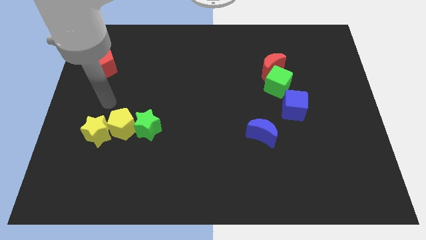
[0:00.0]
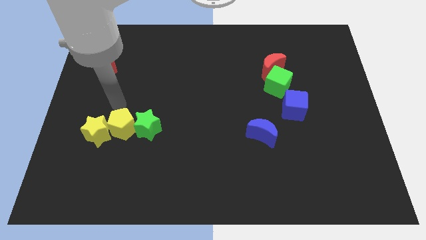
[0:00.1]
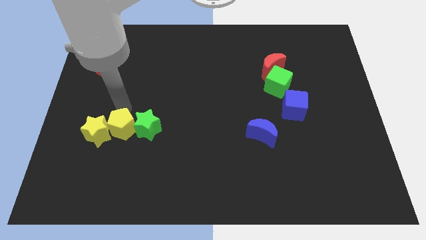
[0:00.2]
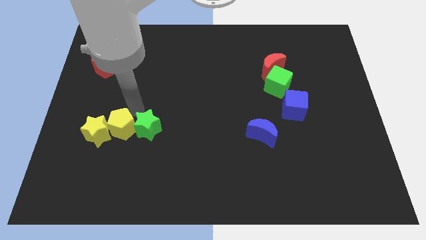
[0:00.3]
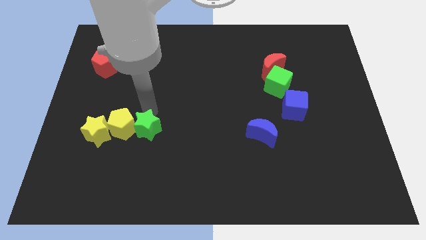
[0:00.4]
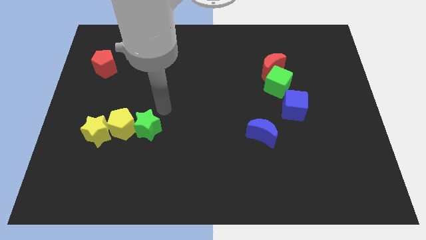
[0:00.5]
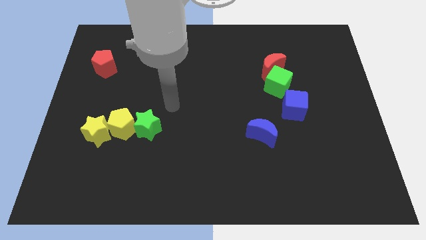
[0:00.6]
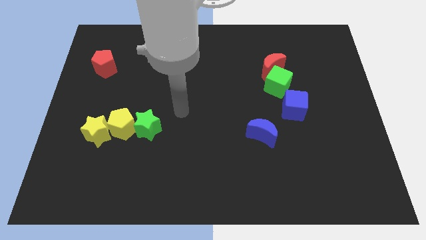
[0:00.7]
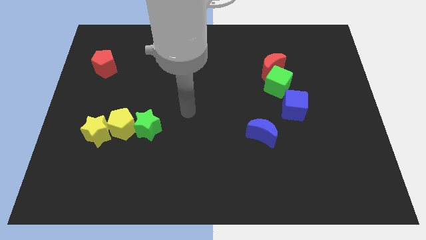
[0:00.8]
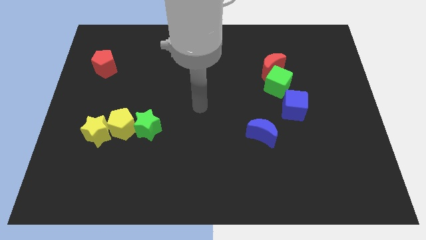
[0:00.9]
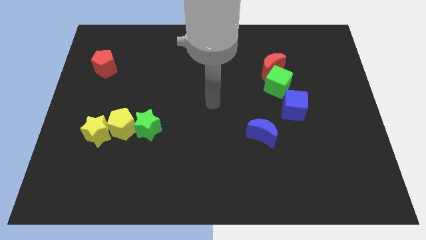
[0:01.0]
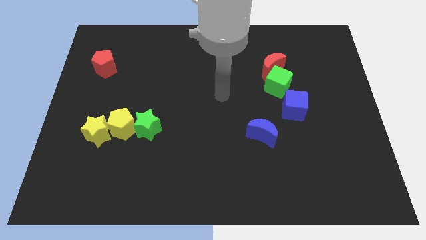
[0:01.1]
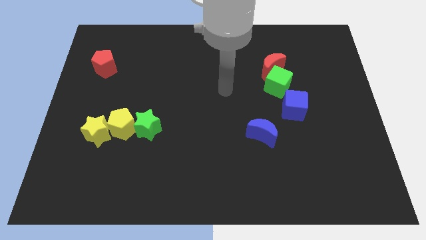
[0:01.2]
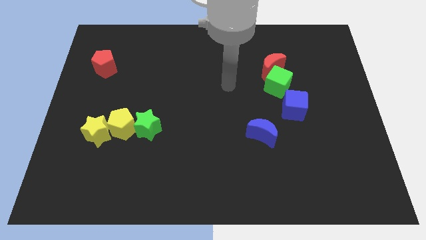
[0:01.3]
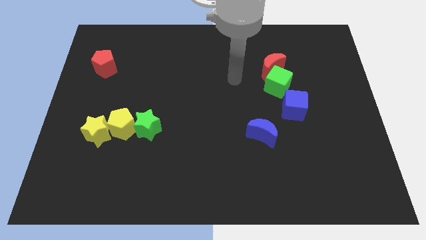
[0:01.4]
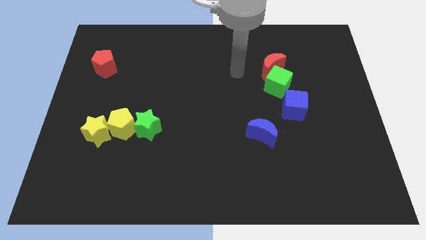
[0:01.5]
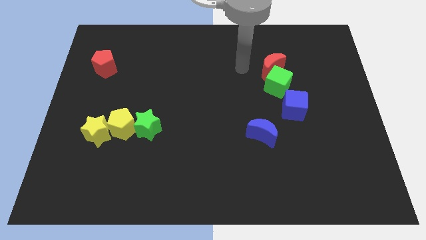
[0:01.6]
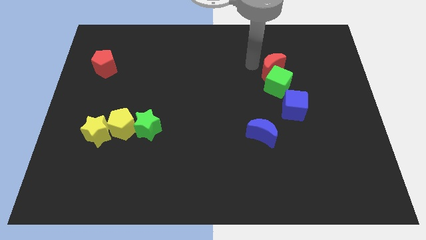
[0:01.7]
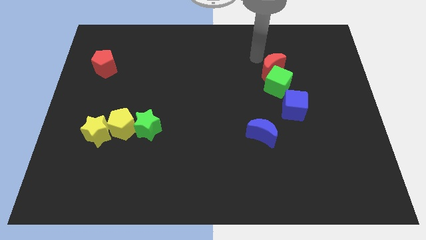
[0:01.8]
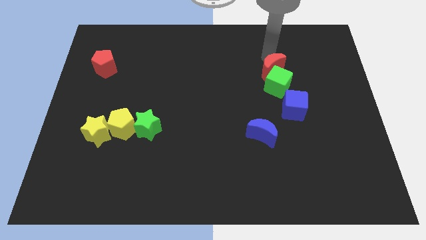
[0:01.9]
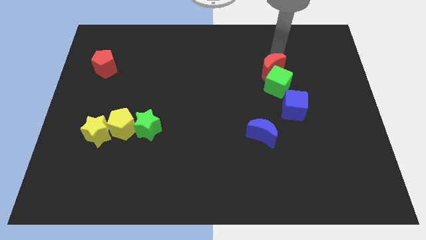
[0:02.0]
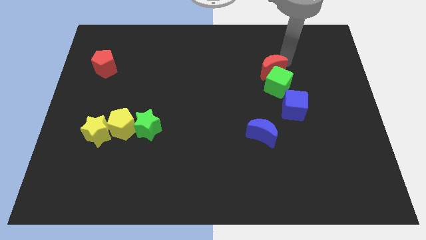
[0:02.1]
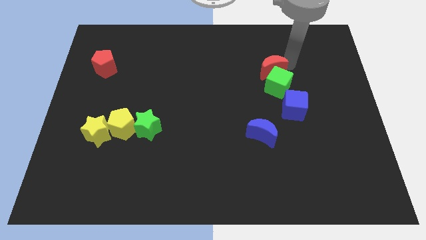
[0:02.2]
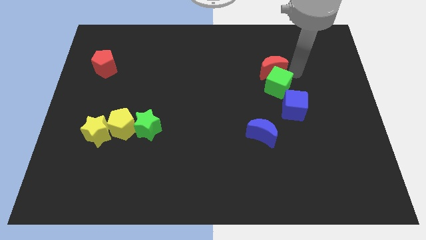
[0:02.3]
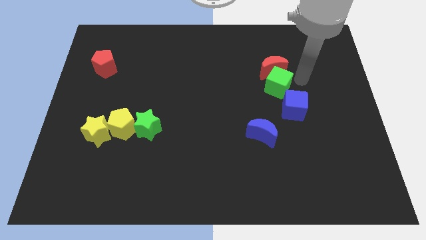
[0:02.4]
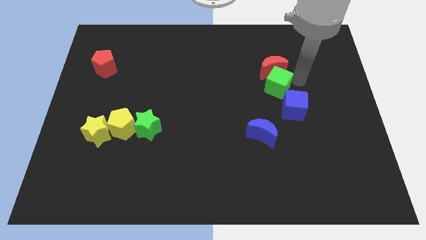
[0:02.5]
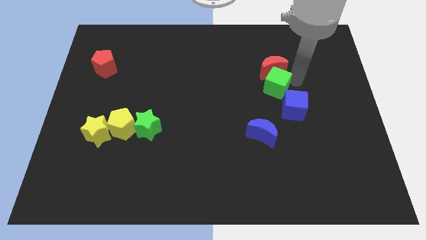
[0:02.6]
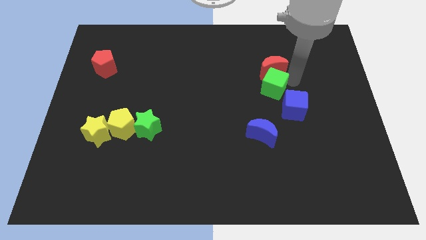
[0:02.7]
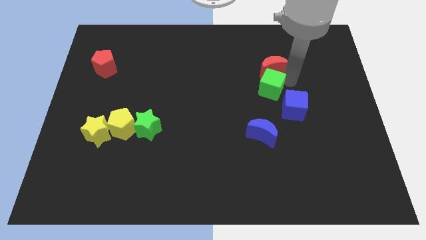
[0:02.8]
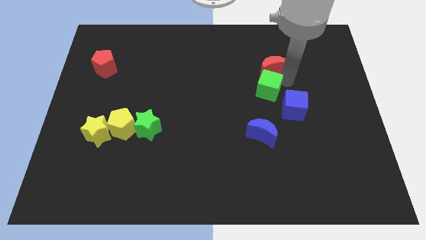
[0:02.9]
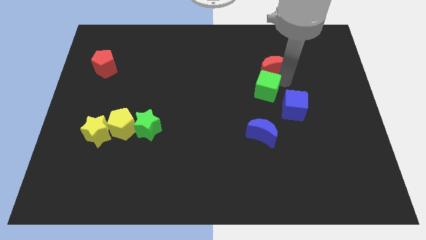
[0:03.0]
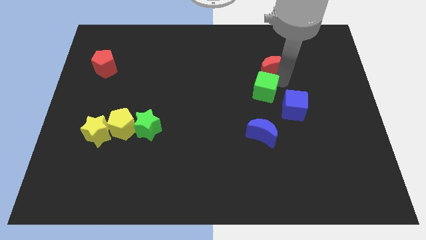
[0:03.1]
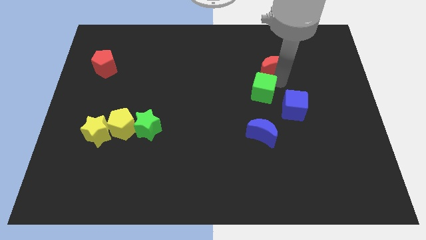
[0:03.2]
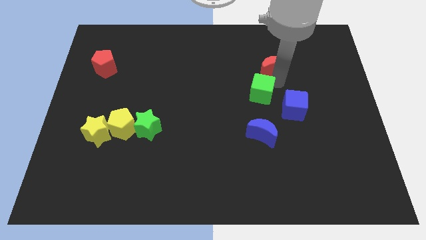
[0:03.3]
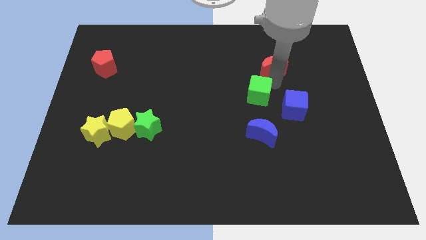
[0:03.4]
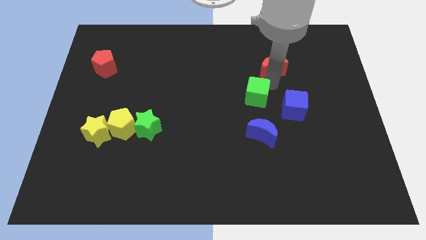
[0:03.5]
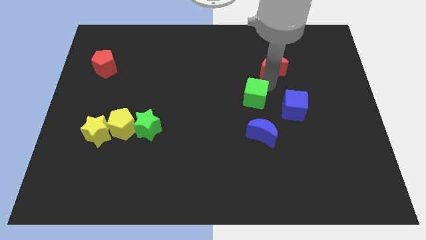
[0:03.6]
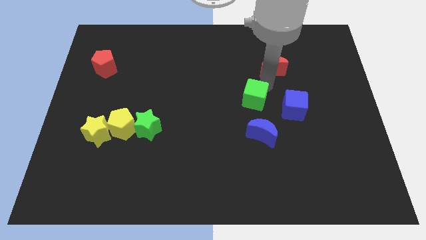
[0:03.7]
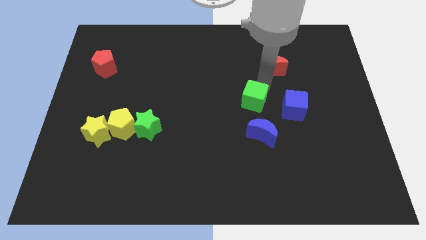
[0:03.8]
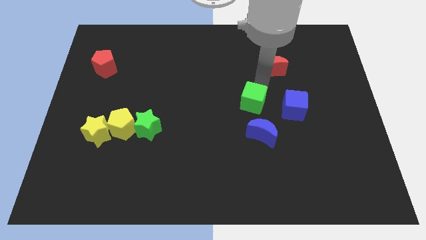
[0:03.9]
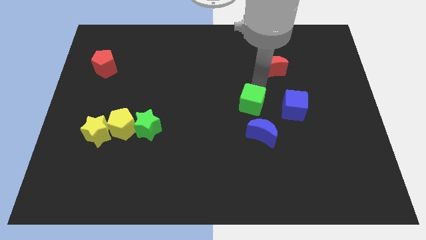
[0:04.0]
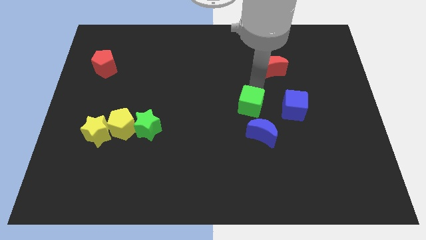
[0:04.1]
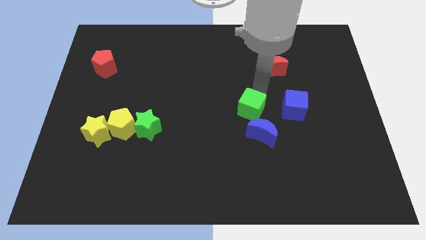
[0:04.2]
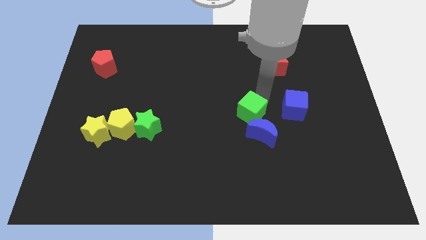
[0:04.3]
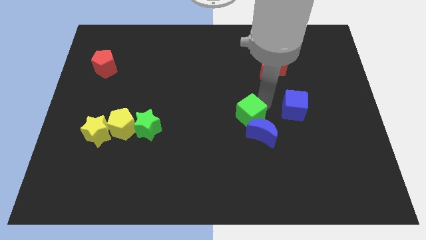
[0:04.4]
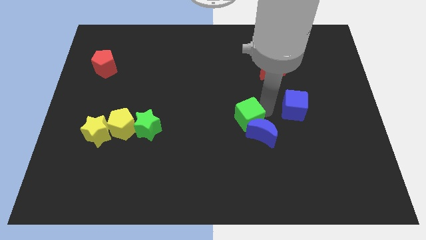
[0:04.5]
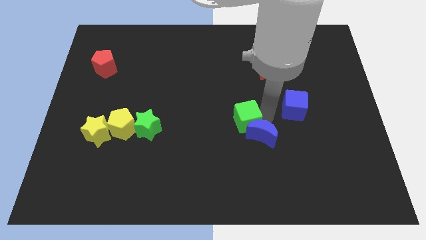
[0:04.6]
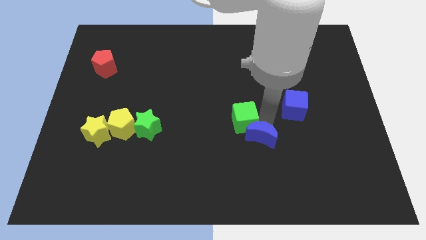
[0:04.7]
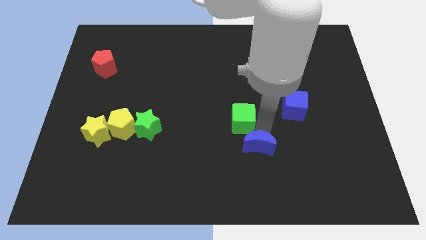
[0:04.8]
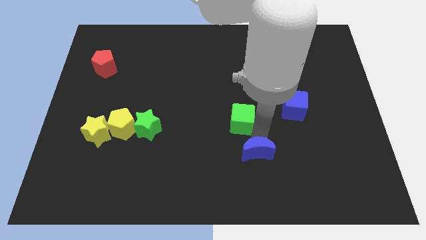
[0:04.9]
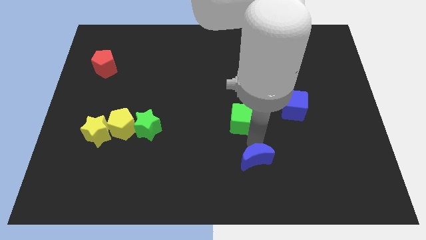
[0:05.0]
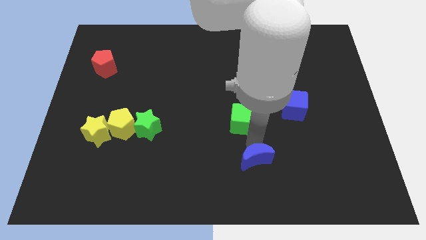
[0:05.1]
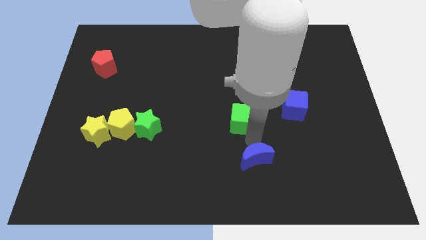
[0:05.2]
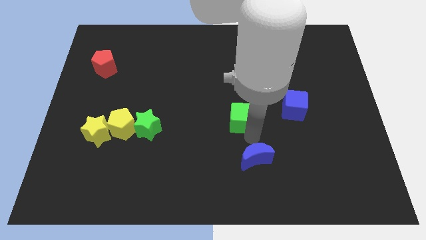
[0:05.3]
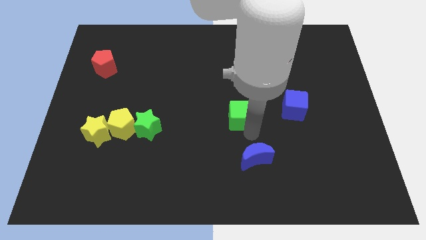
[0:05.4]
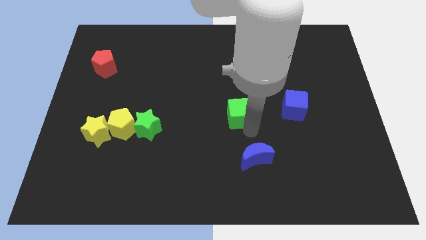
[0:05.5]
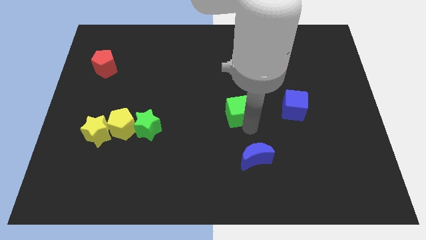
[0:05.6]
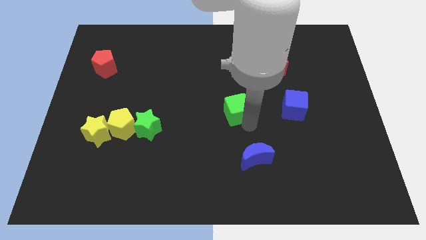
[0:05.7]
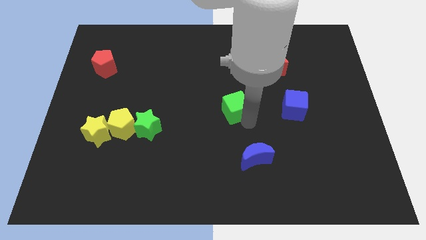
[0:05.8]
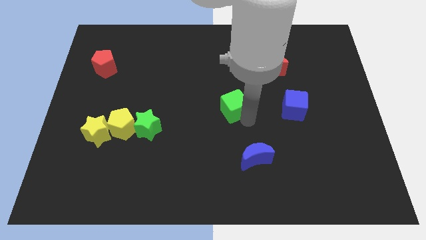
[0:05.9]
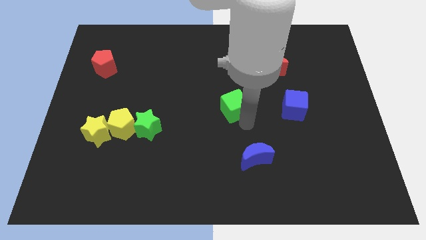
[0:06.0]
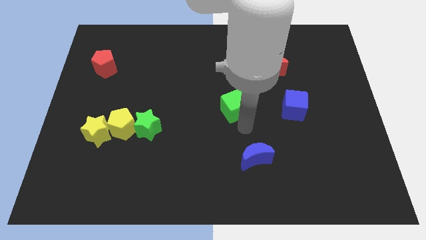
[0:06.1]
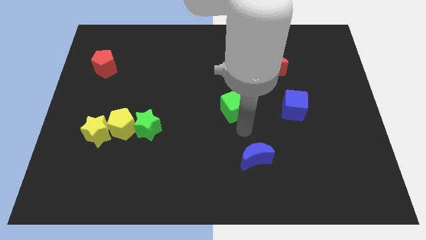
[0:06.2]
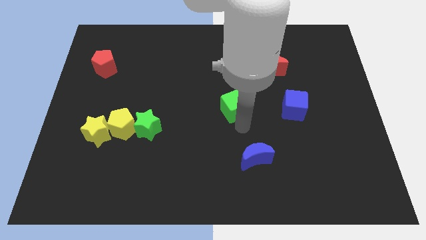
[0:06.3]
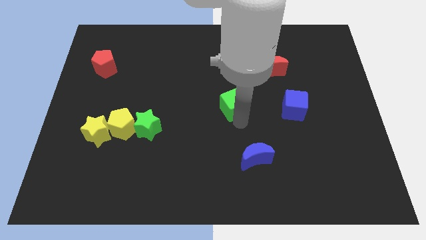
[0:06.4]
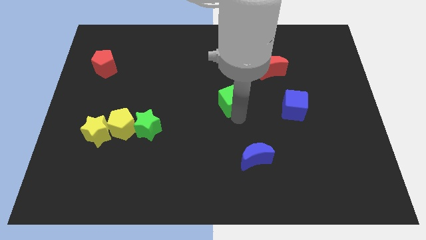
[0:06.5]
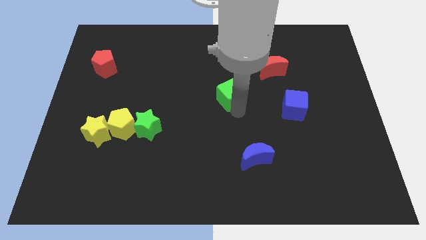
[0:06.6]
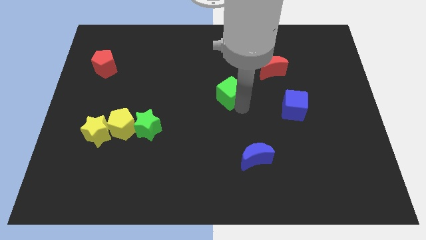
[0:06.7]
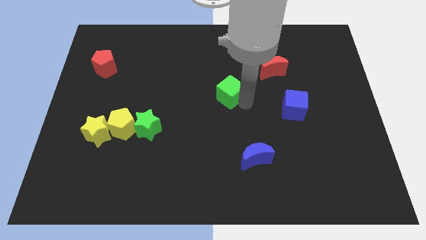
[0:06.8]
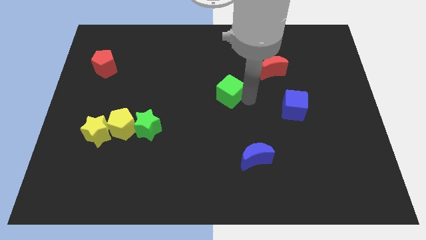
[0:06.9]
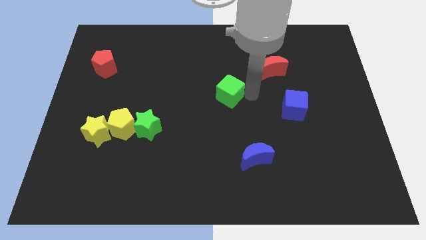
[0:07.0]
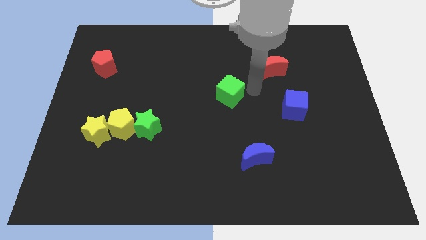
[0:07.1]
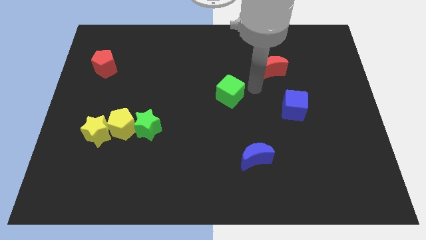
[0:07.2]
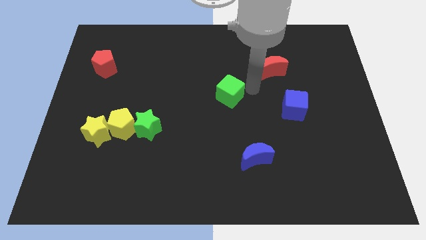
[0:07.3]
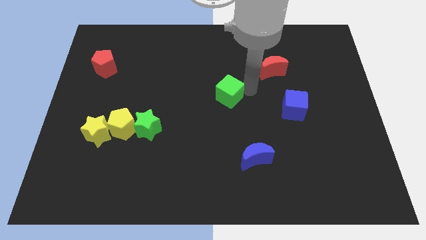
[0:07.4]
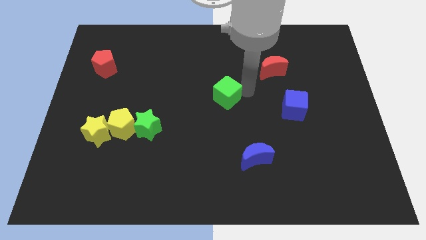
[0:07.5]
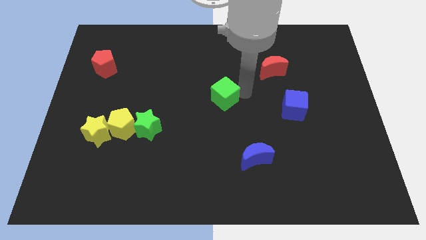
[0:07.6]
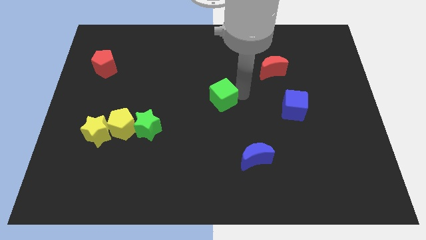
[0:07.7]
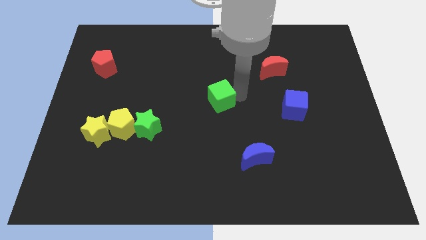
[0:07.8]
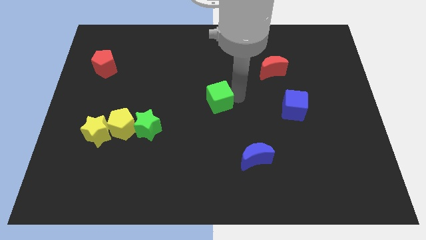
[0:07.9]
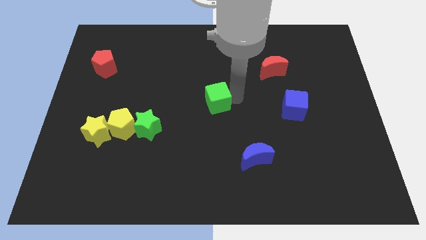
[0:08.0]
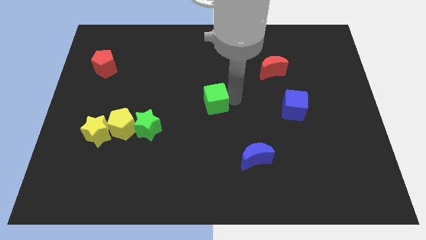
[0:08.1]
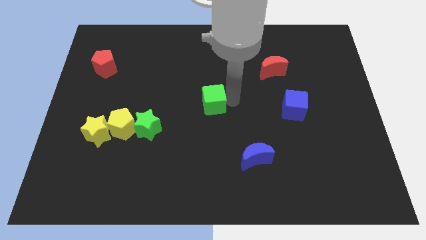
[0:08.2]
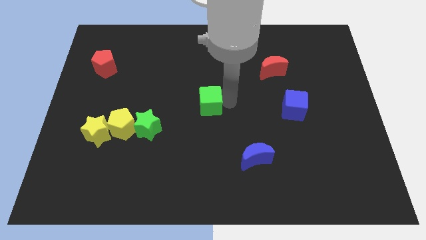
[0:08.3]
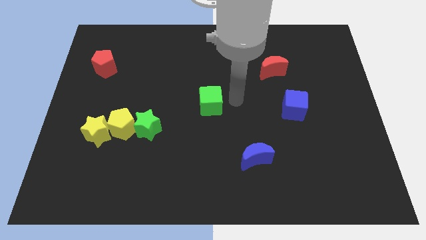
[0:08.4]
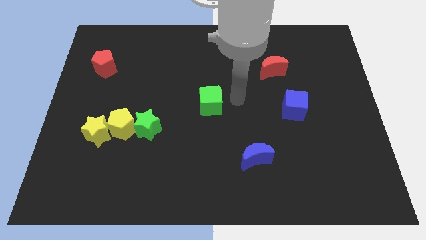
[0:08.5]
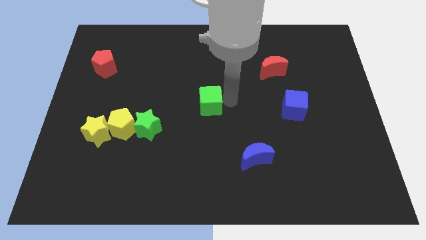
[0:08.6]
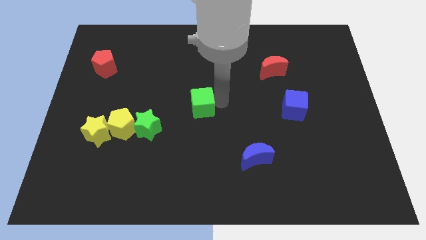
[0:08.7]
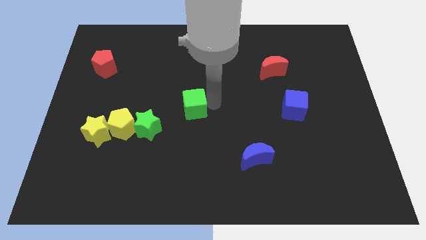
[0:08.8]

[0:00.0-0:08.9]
move the green cube to the top right side of the green star
